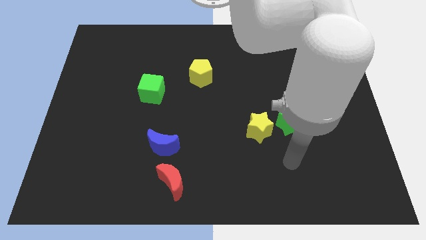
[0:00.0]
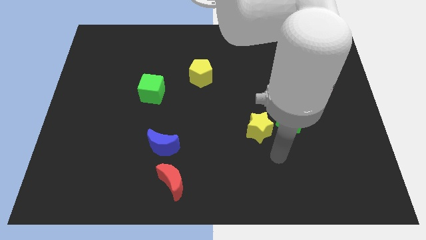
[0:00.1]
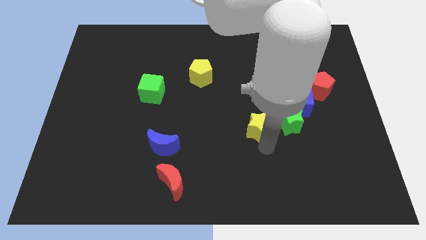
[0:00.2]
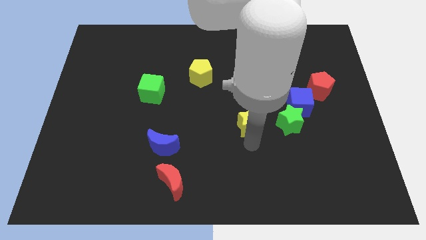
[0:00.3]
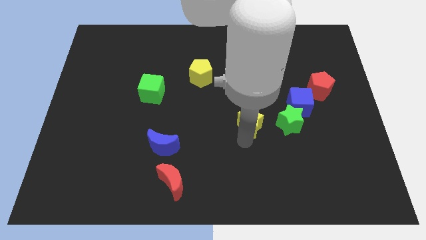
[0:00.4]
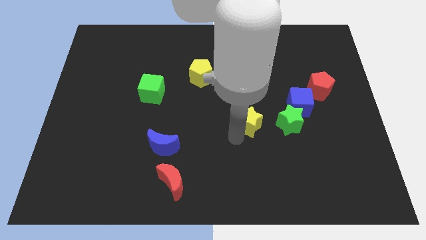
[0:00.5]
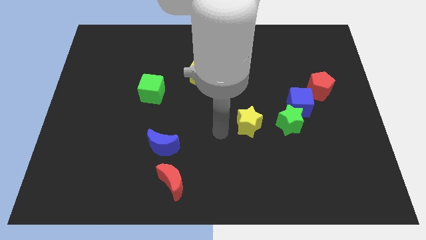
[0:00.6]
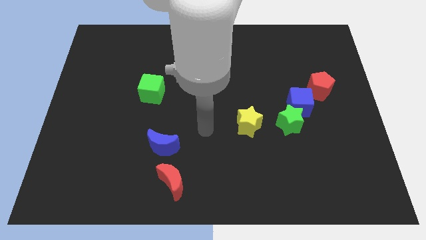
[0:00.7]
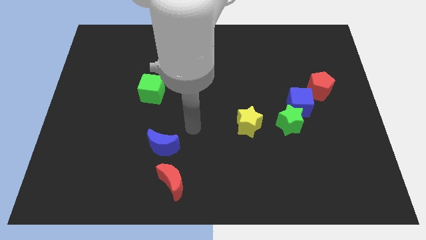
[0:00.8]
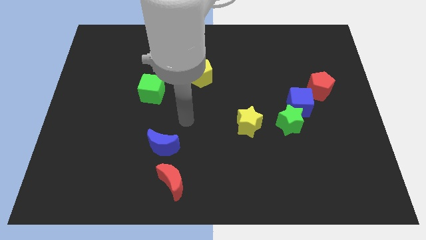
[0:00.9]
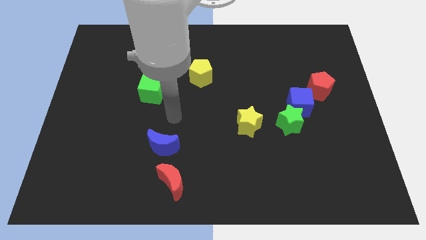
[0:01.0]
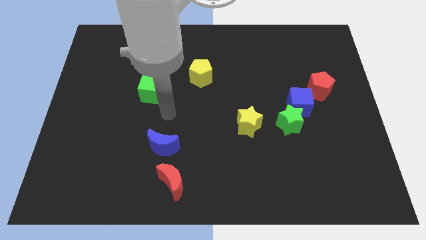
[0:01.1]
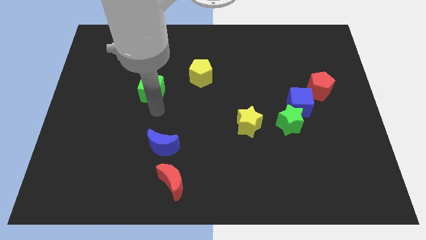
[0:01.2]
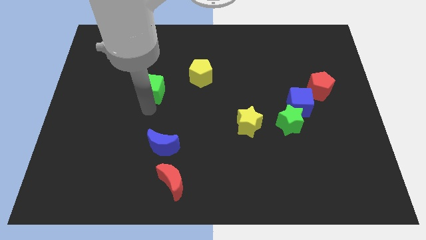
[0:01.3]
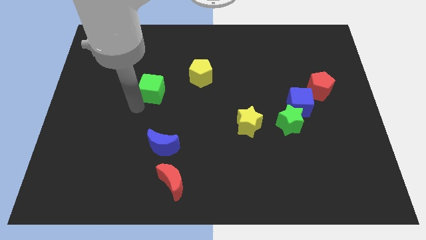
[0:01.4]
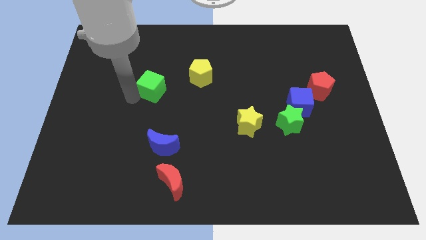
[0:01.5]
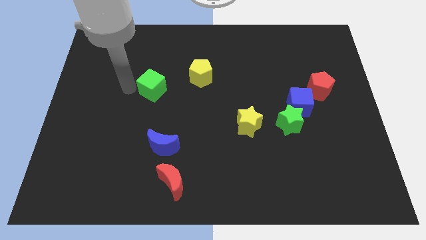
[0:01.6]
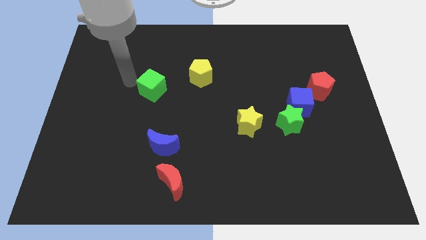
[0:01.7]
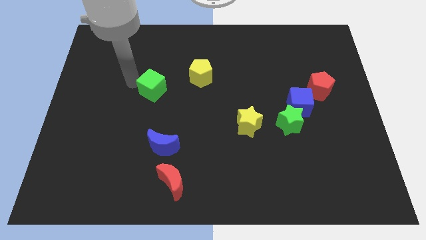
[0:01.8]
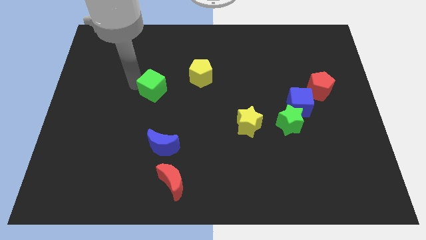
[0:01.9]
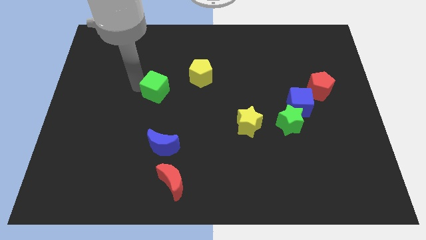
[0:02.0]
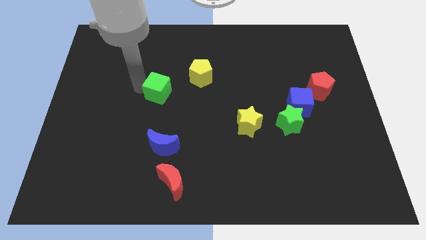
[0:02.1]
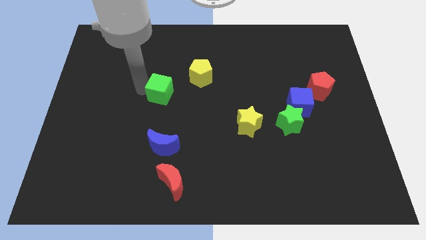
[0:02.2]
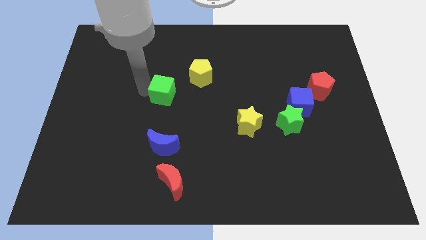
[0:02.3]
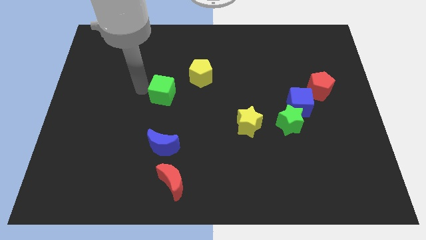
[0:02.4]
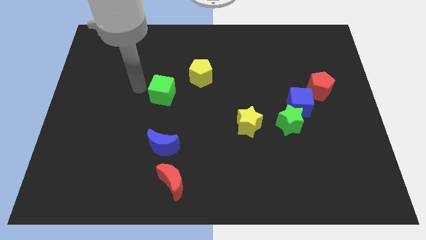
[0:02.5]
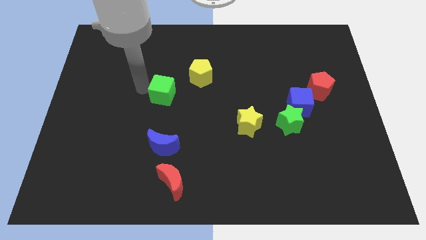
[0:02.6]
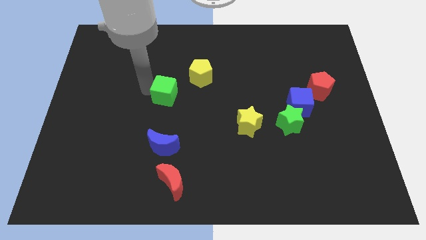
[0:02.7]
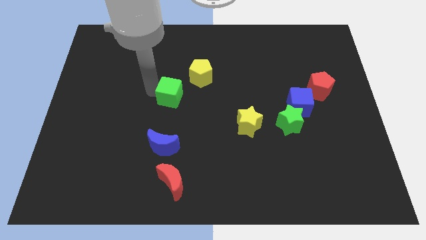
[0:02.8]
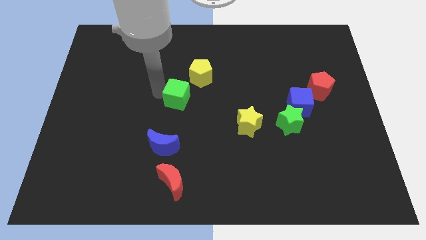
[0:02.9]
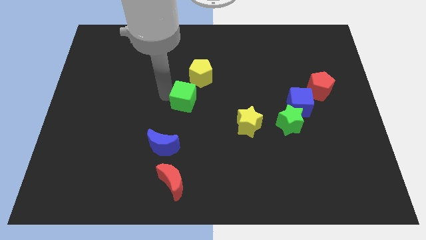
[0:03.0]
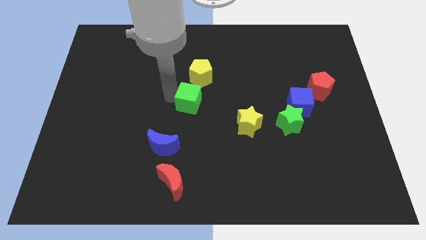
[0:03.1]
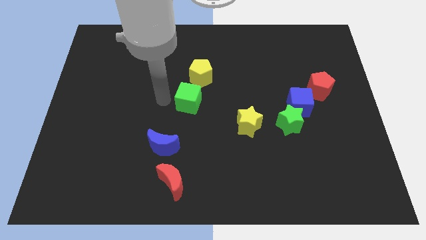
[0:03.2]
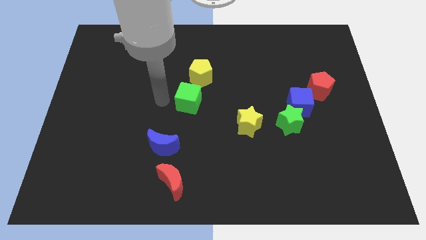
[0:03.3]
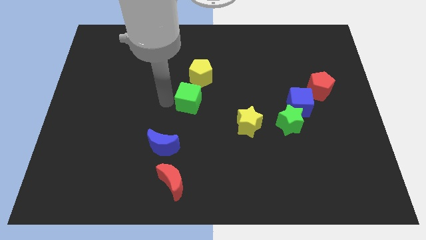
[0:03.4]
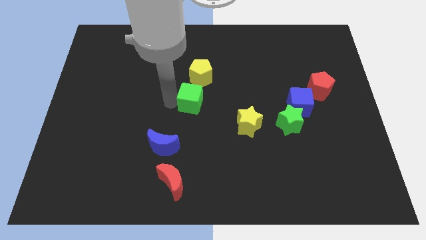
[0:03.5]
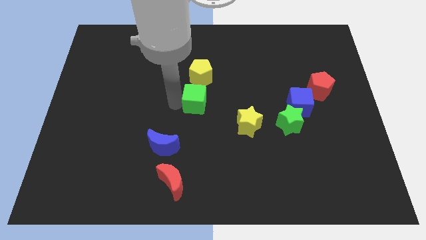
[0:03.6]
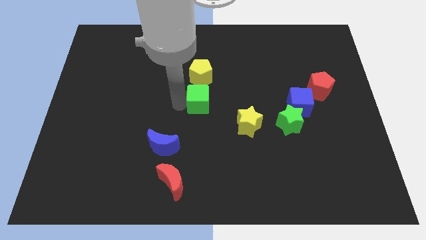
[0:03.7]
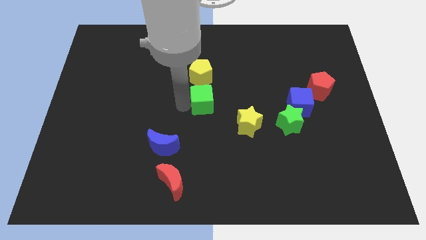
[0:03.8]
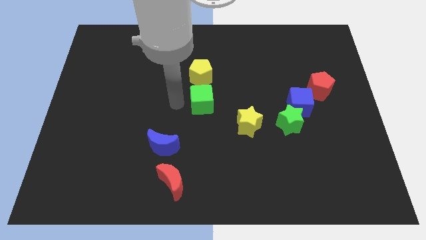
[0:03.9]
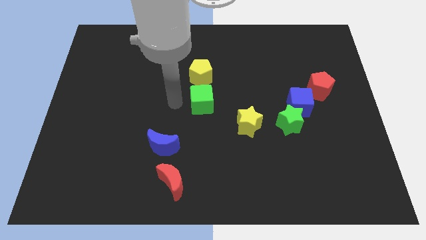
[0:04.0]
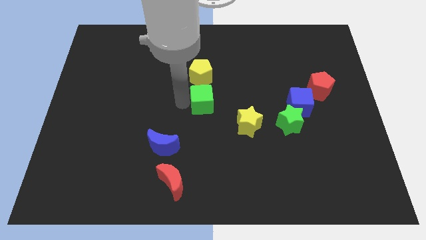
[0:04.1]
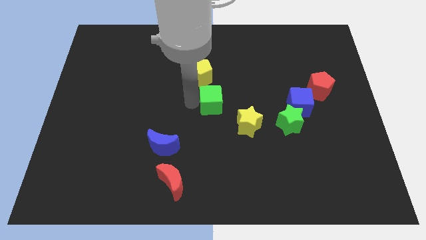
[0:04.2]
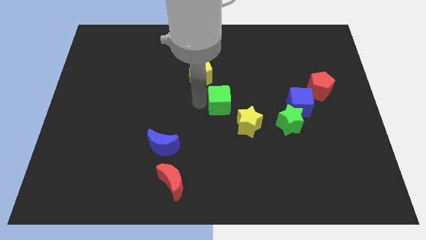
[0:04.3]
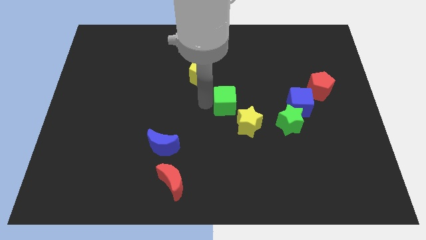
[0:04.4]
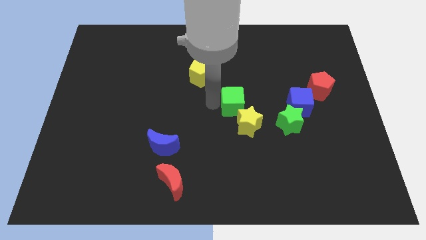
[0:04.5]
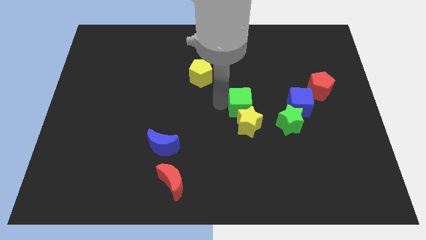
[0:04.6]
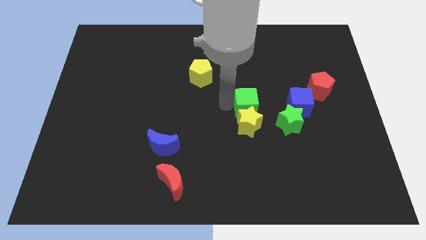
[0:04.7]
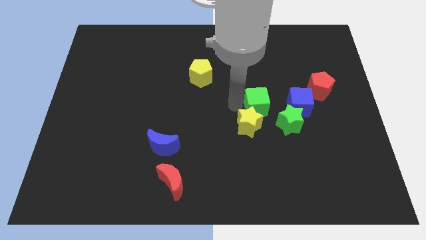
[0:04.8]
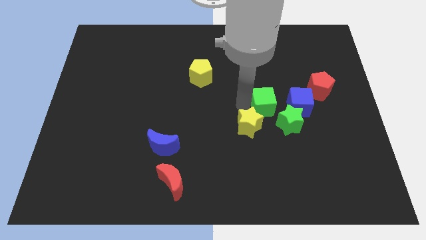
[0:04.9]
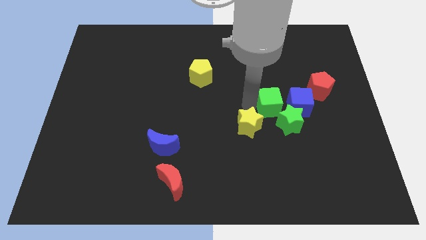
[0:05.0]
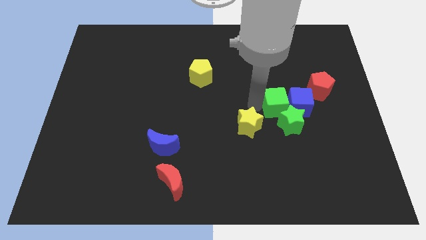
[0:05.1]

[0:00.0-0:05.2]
push the green cube close to the blue cube

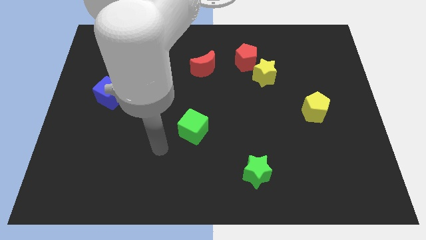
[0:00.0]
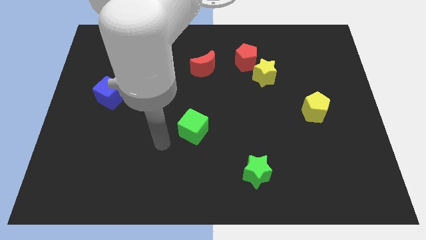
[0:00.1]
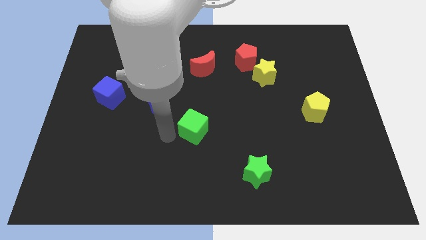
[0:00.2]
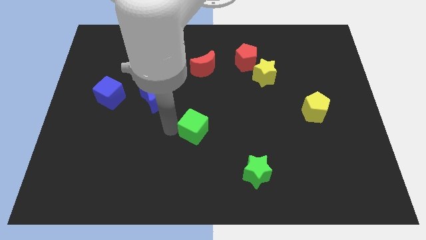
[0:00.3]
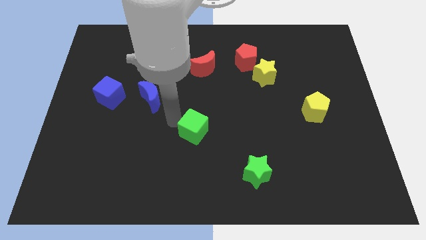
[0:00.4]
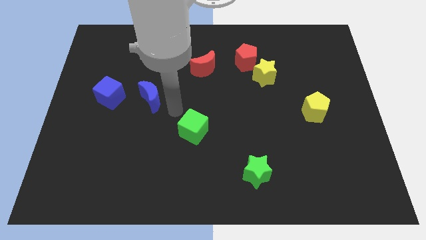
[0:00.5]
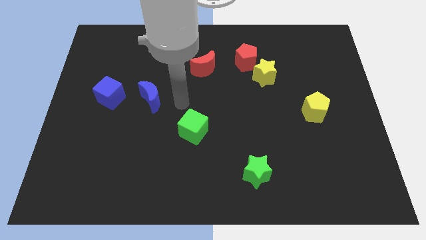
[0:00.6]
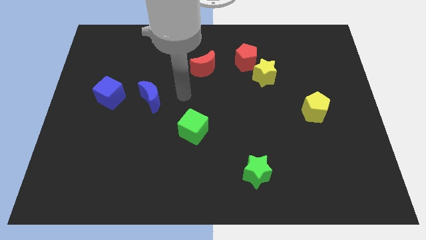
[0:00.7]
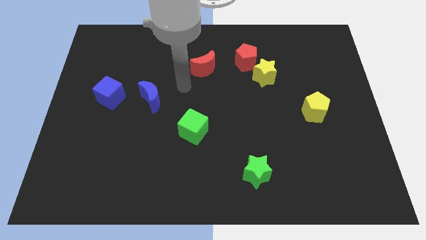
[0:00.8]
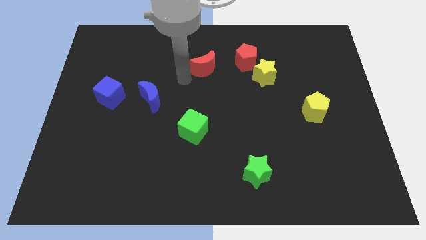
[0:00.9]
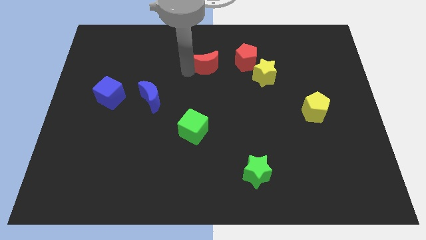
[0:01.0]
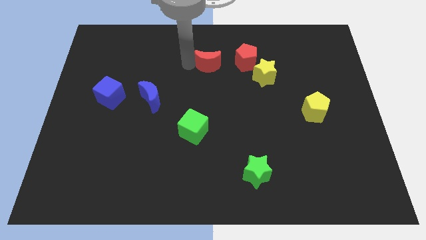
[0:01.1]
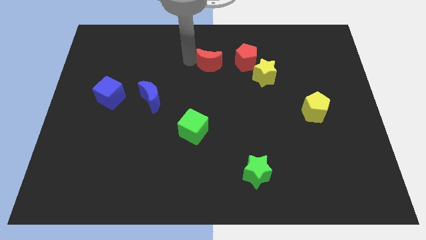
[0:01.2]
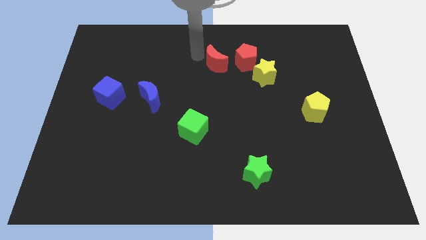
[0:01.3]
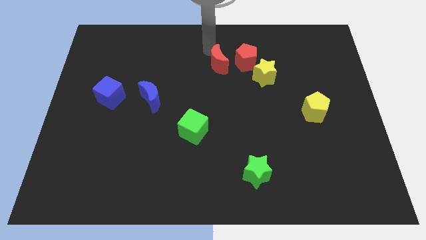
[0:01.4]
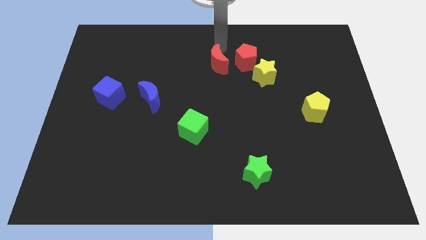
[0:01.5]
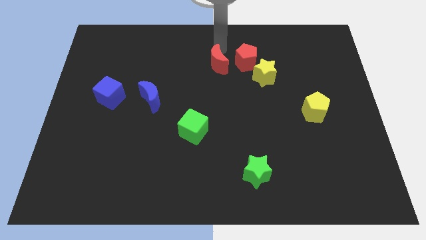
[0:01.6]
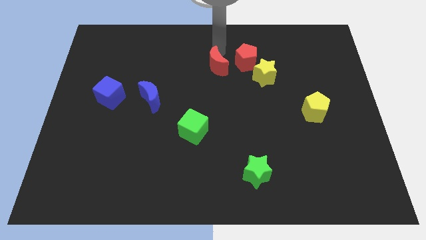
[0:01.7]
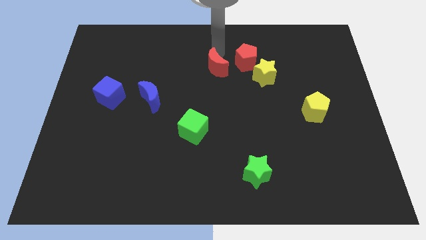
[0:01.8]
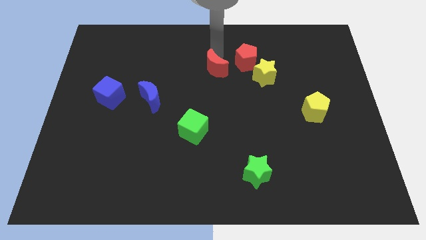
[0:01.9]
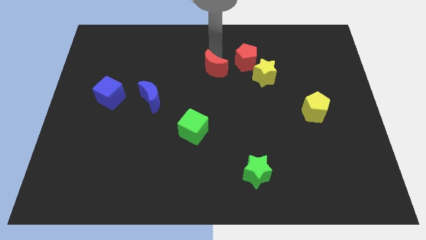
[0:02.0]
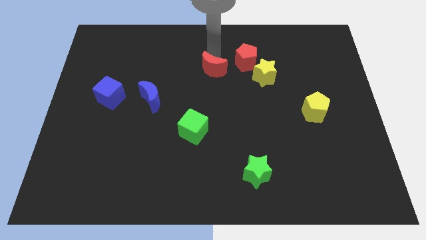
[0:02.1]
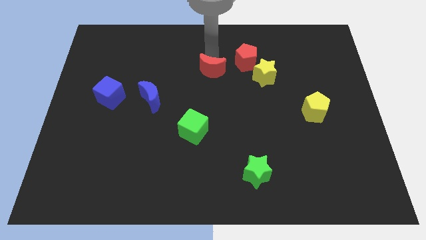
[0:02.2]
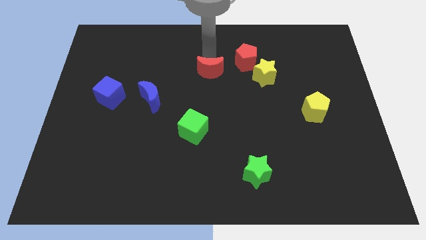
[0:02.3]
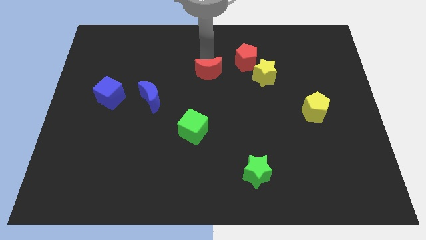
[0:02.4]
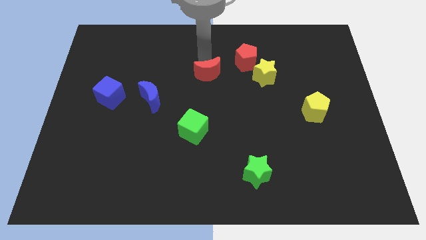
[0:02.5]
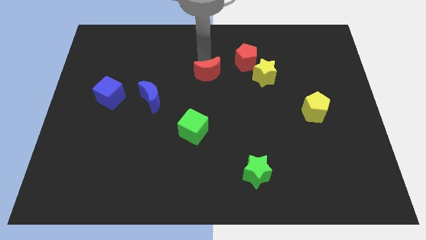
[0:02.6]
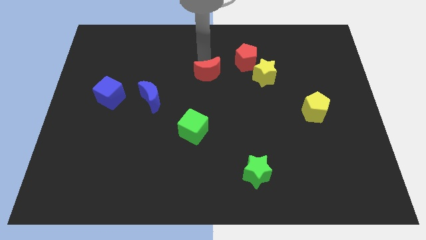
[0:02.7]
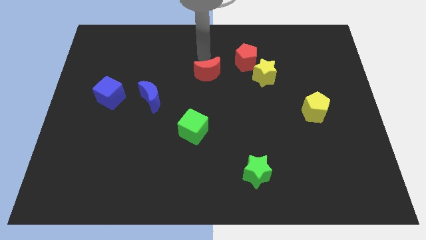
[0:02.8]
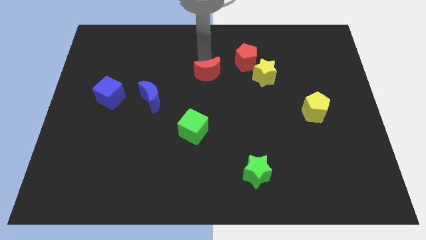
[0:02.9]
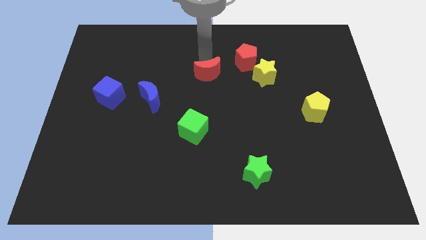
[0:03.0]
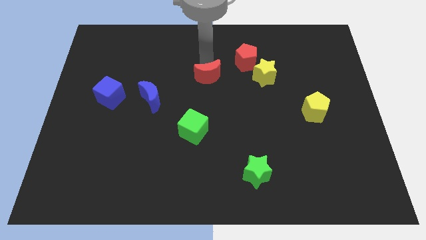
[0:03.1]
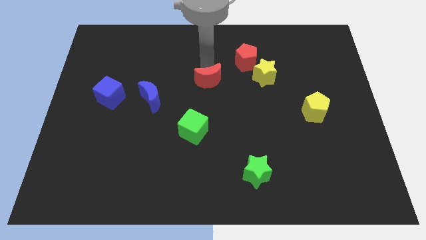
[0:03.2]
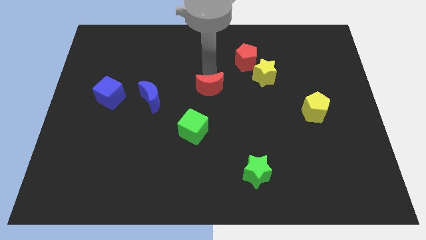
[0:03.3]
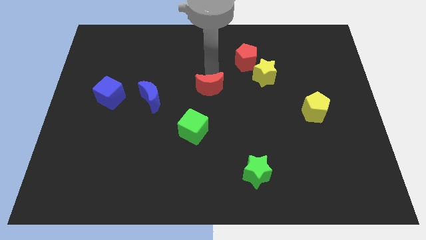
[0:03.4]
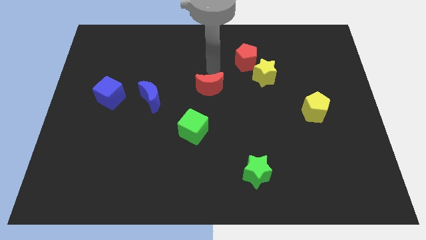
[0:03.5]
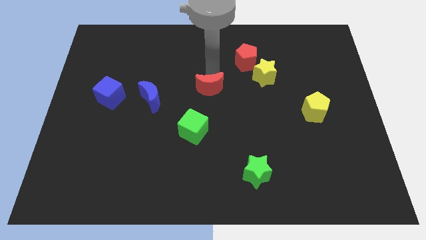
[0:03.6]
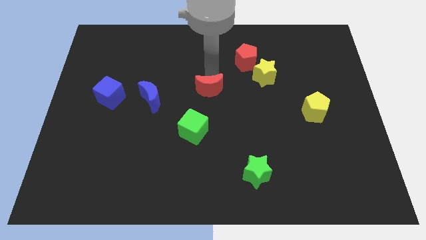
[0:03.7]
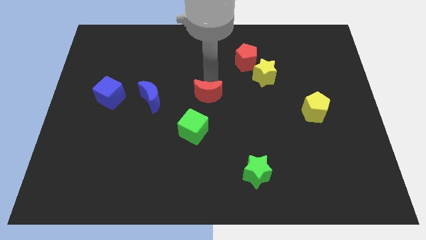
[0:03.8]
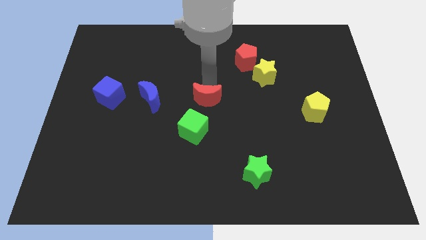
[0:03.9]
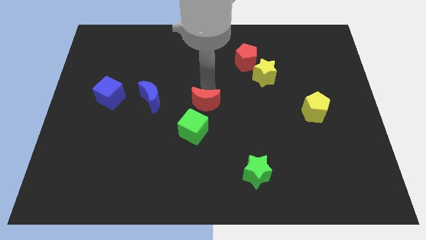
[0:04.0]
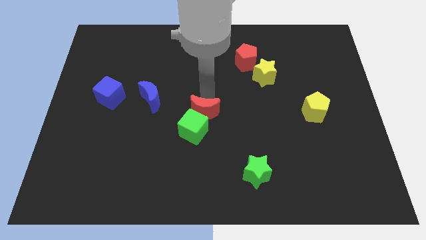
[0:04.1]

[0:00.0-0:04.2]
put the red moon towards the green cube
